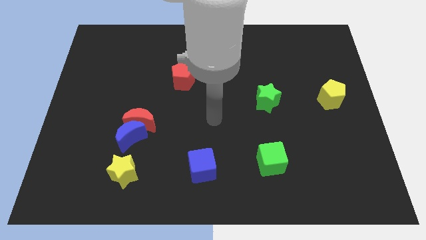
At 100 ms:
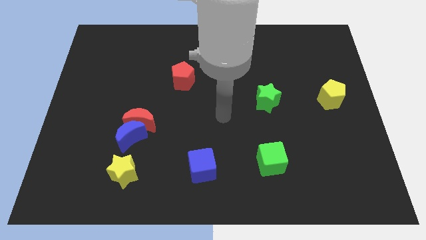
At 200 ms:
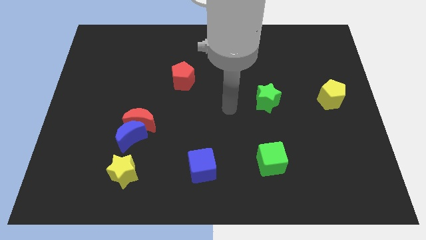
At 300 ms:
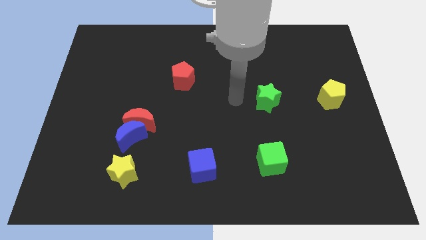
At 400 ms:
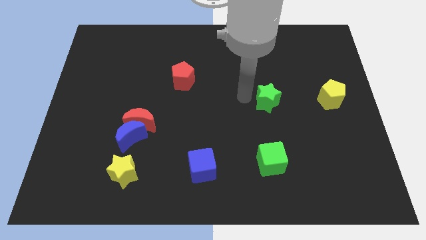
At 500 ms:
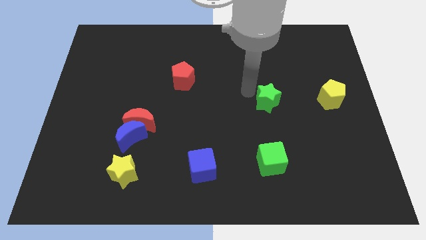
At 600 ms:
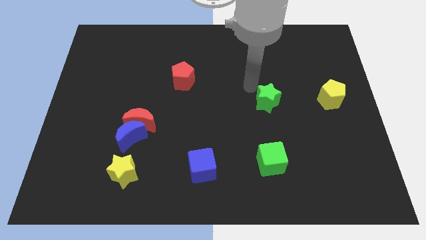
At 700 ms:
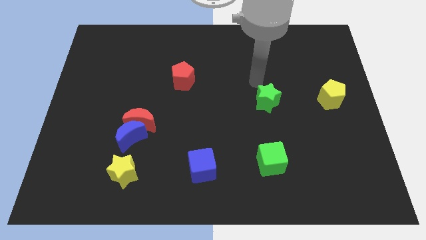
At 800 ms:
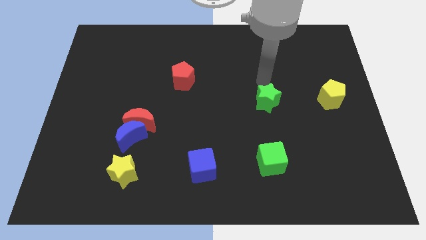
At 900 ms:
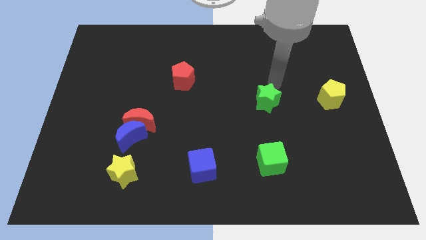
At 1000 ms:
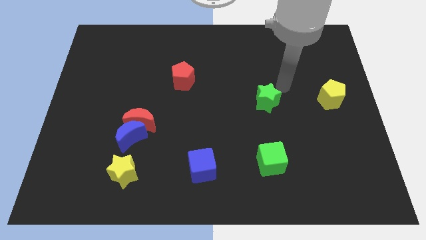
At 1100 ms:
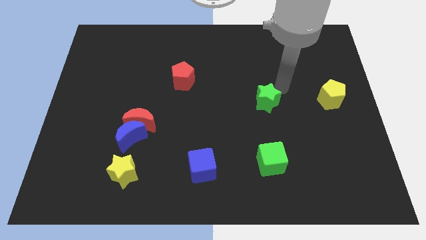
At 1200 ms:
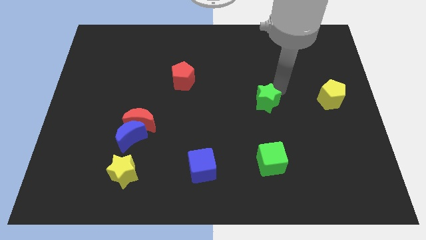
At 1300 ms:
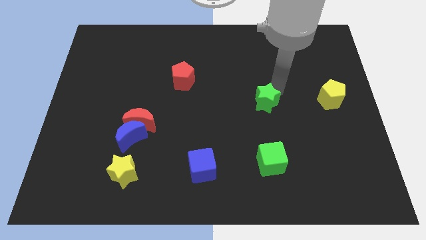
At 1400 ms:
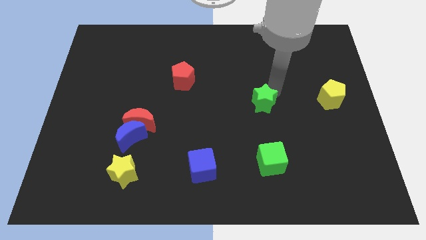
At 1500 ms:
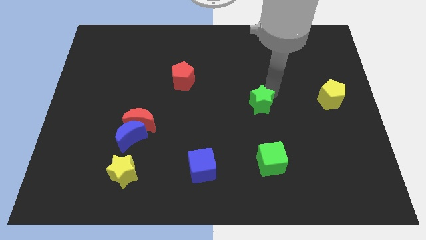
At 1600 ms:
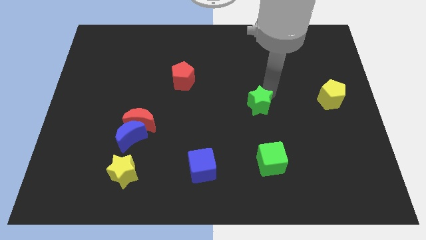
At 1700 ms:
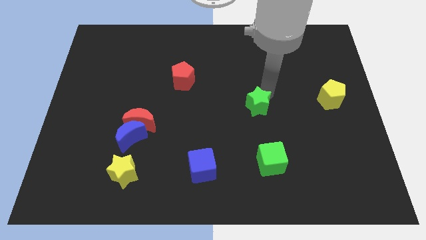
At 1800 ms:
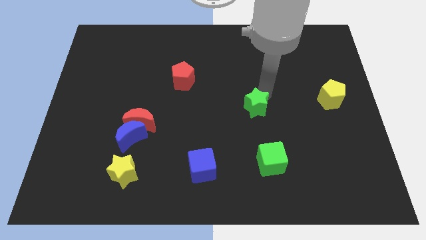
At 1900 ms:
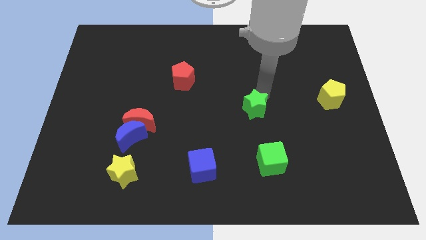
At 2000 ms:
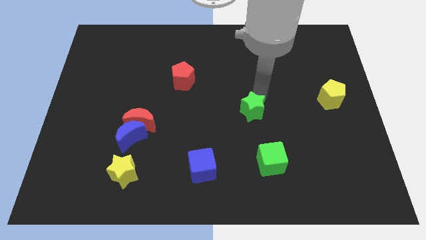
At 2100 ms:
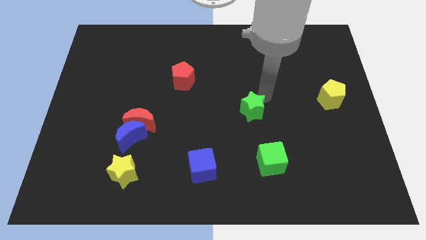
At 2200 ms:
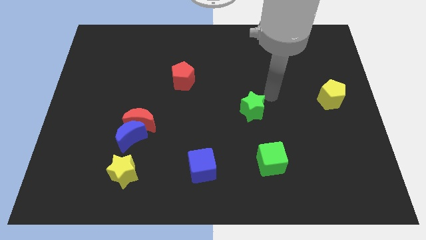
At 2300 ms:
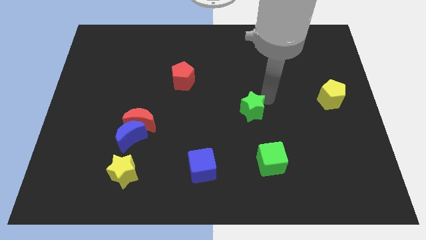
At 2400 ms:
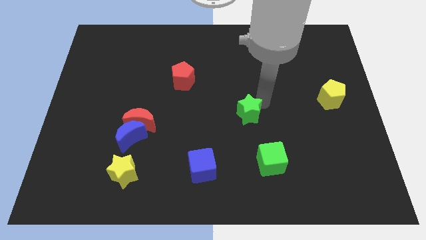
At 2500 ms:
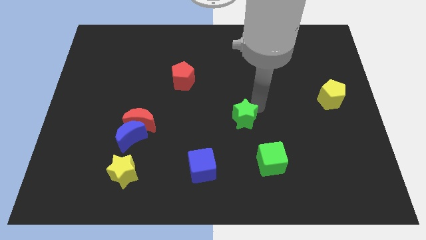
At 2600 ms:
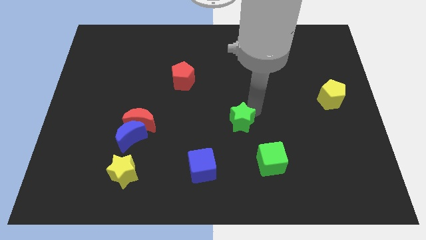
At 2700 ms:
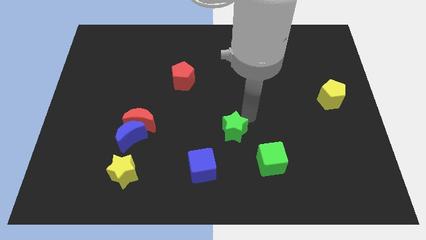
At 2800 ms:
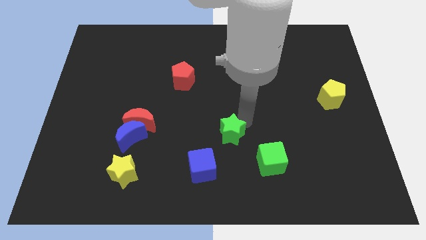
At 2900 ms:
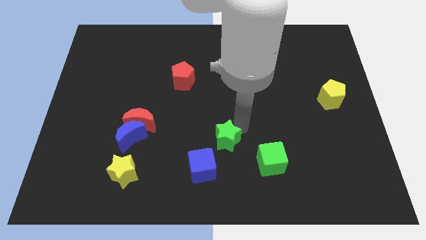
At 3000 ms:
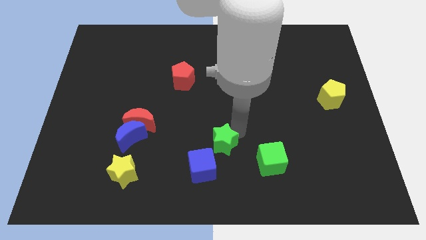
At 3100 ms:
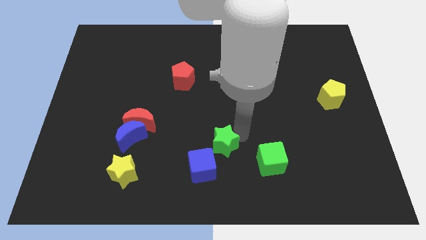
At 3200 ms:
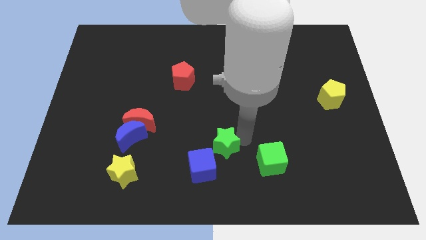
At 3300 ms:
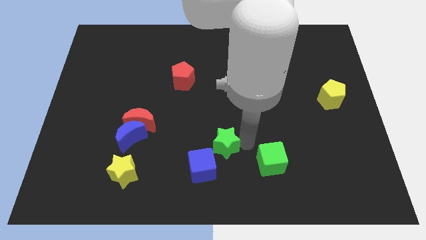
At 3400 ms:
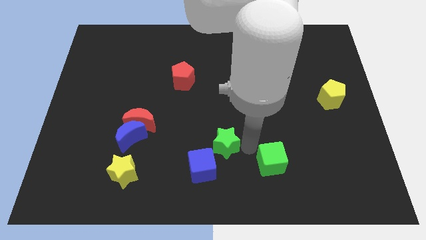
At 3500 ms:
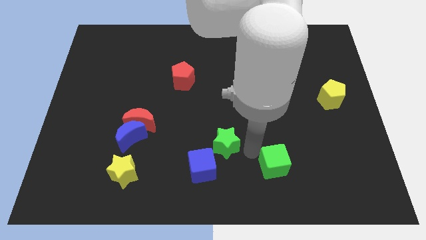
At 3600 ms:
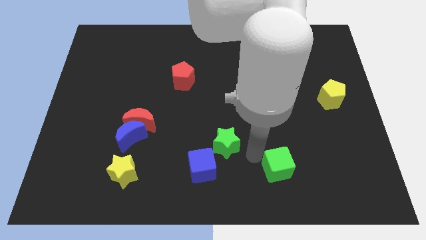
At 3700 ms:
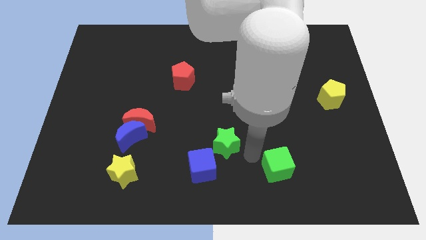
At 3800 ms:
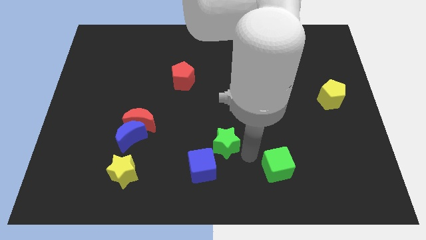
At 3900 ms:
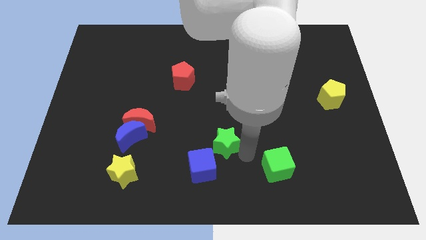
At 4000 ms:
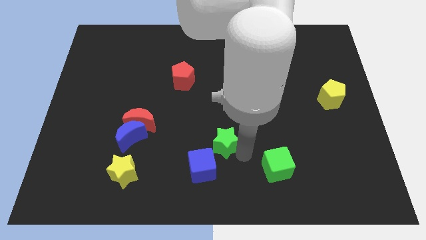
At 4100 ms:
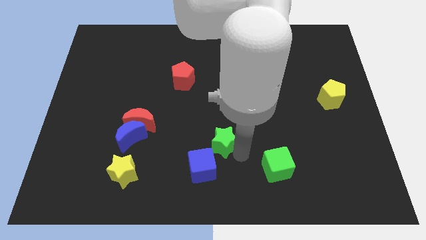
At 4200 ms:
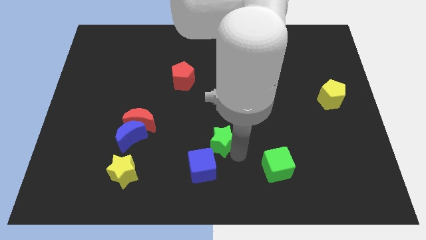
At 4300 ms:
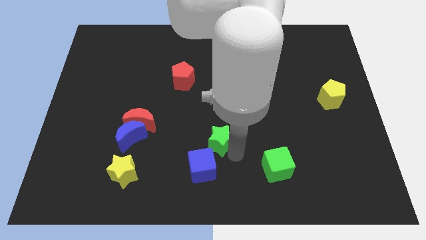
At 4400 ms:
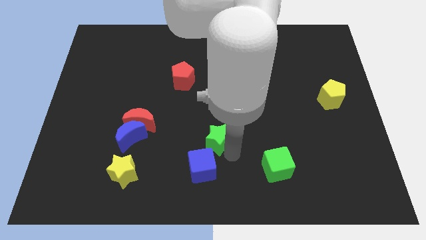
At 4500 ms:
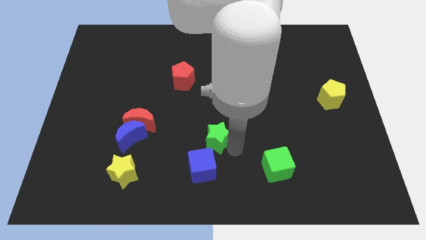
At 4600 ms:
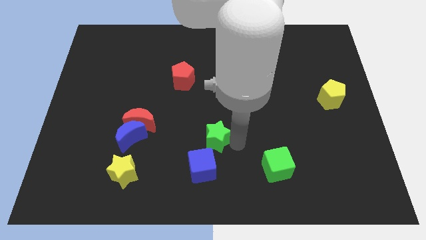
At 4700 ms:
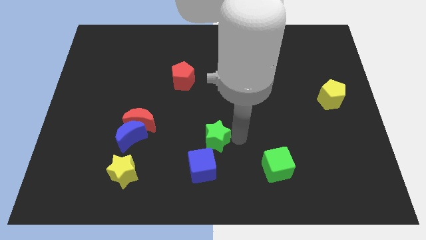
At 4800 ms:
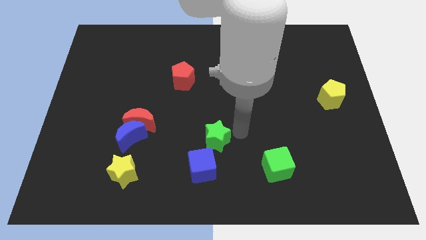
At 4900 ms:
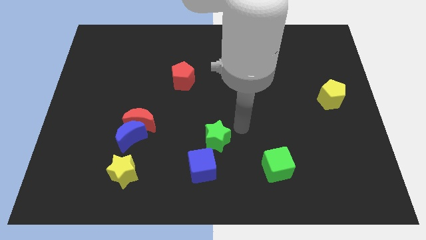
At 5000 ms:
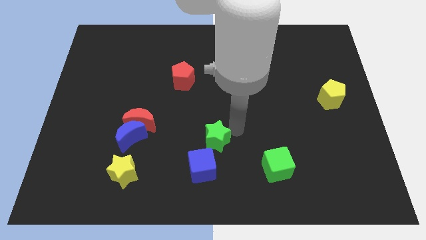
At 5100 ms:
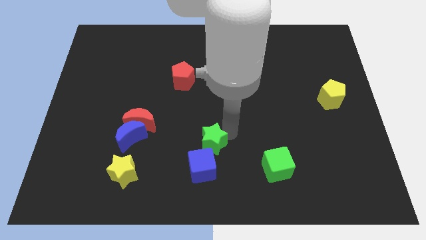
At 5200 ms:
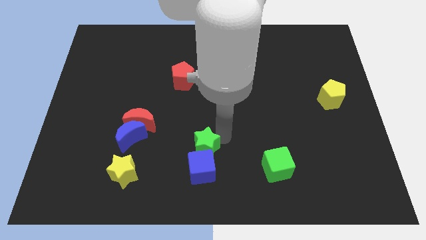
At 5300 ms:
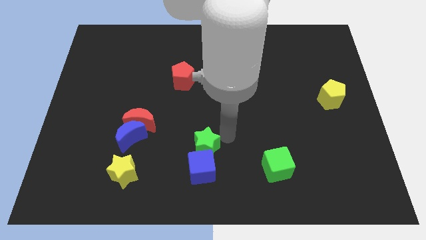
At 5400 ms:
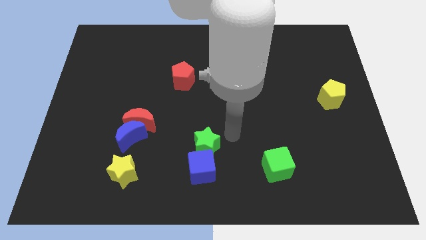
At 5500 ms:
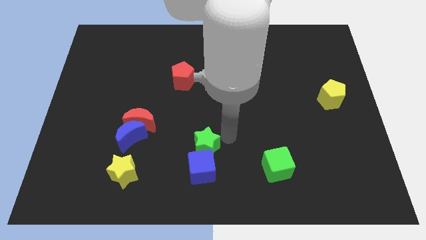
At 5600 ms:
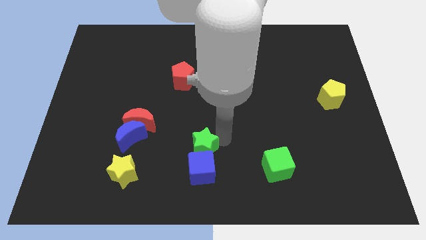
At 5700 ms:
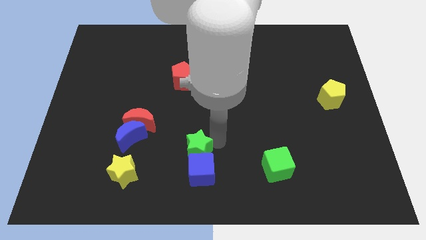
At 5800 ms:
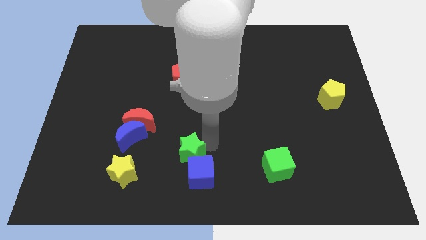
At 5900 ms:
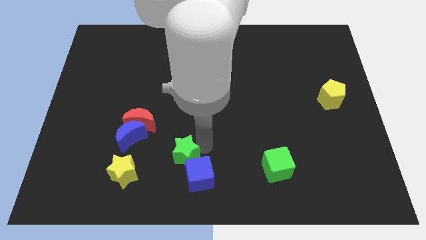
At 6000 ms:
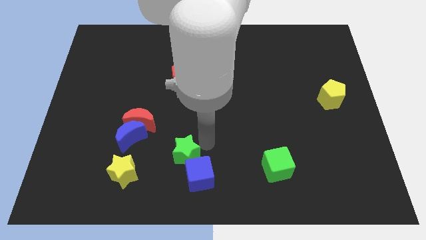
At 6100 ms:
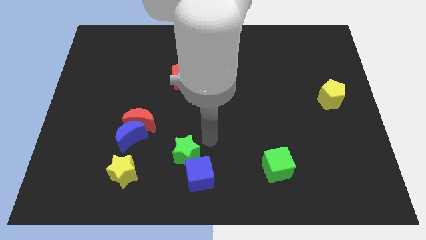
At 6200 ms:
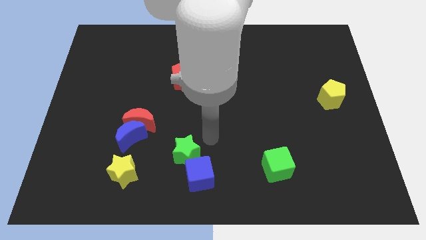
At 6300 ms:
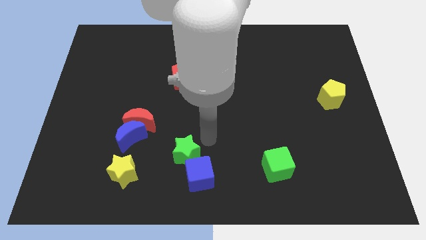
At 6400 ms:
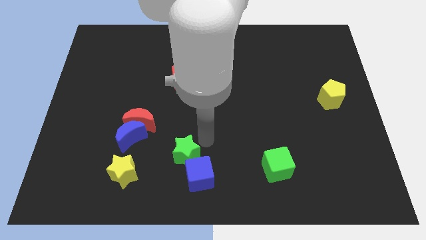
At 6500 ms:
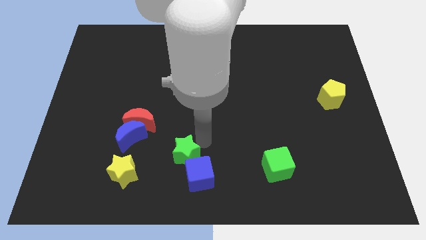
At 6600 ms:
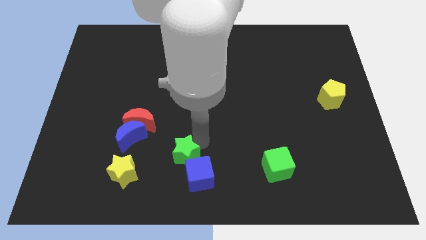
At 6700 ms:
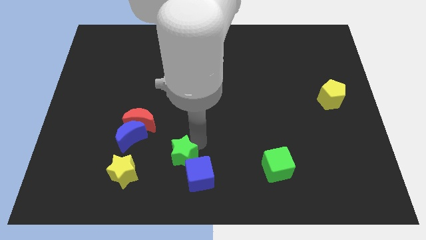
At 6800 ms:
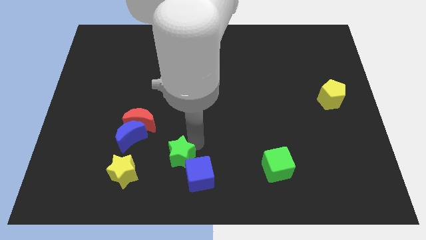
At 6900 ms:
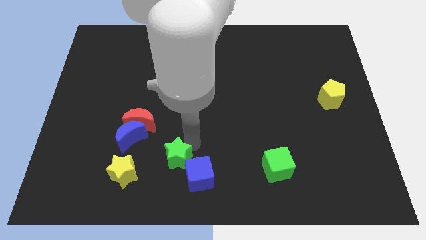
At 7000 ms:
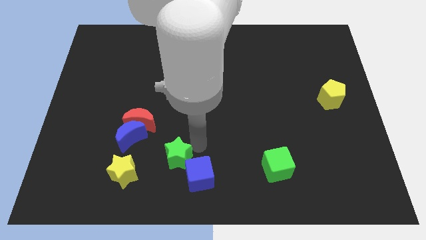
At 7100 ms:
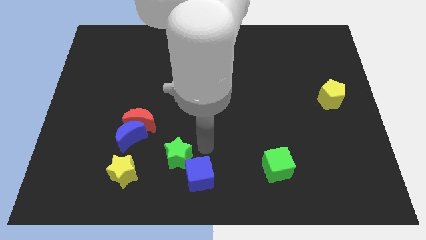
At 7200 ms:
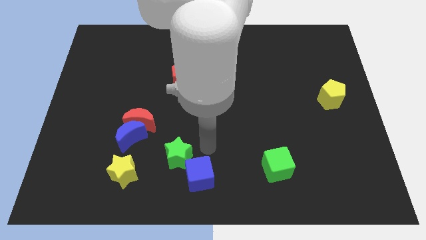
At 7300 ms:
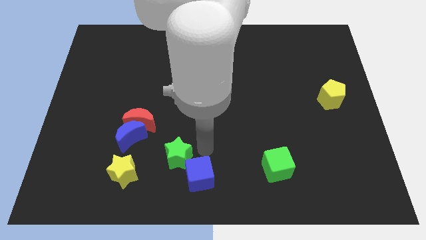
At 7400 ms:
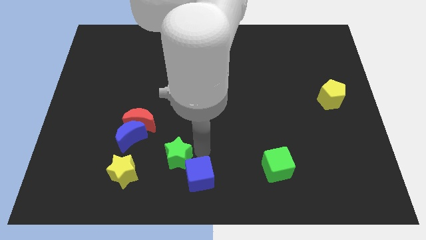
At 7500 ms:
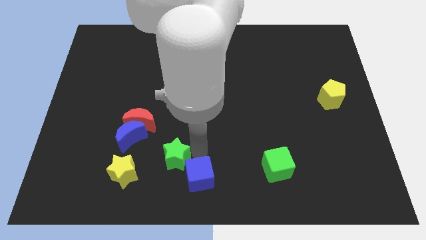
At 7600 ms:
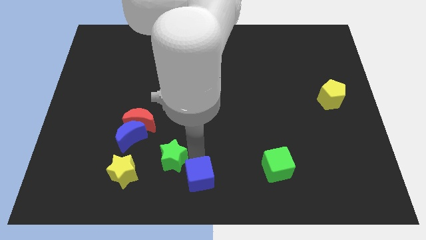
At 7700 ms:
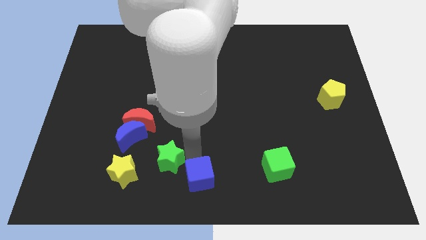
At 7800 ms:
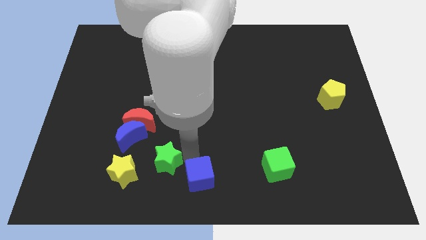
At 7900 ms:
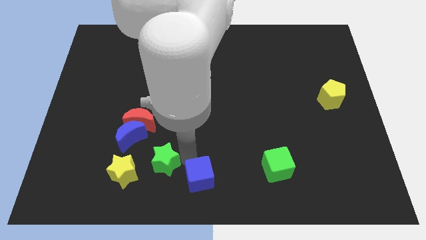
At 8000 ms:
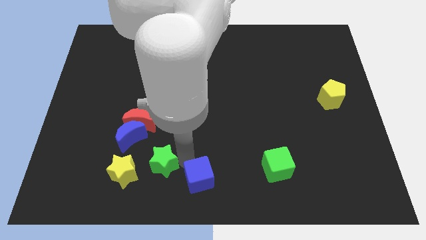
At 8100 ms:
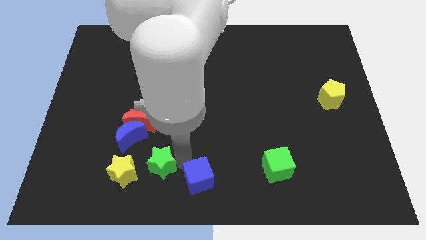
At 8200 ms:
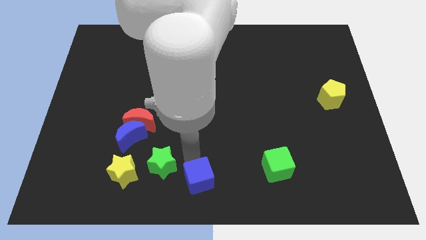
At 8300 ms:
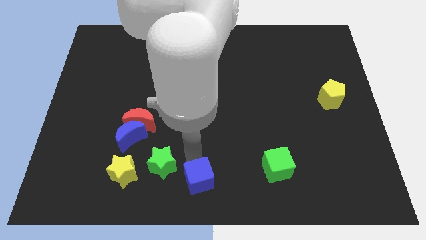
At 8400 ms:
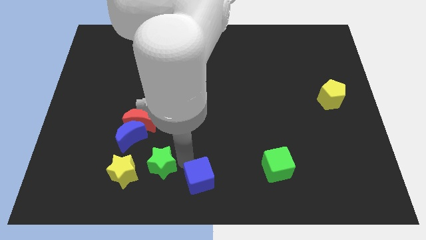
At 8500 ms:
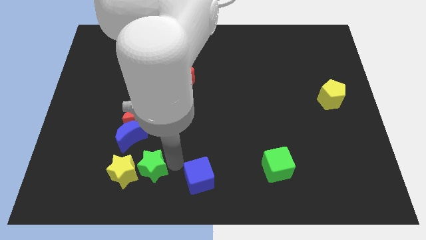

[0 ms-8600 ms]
put the green star next to the yellow star
